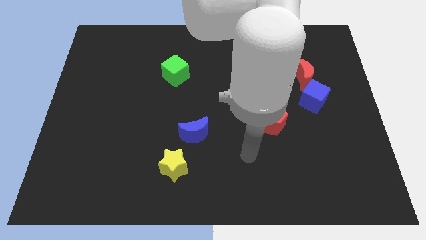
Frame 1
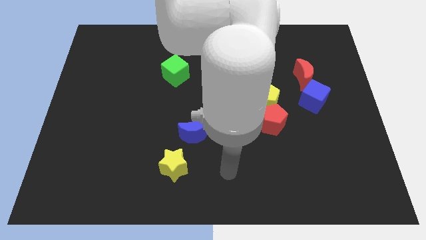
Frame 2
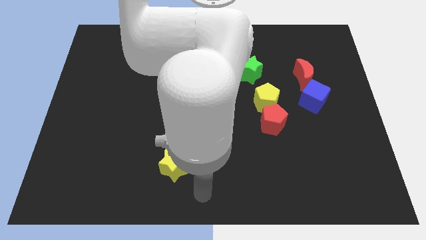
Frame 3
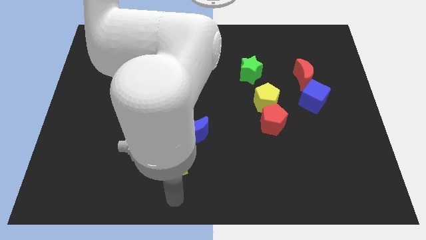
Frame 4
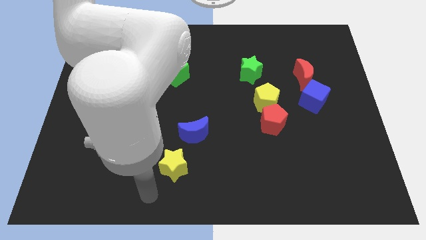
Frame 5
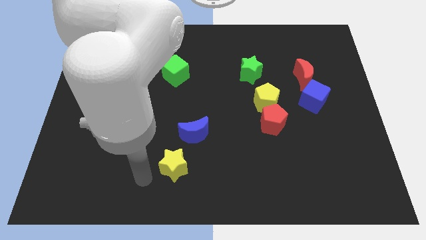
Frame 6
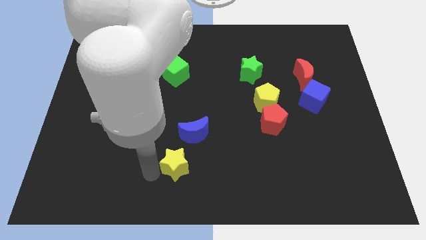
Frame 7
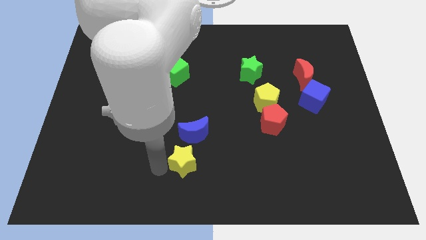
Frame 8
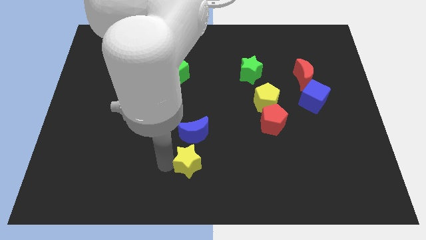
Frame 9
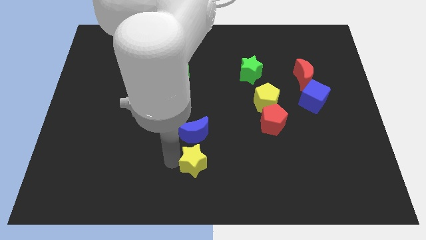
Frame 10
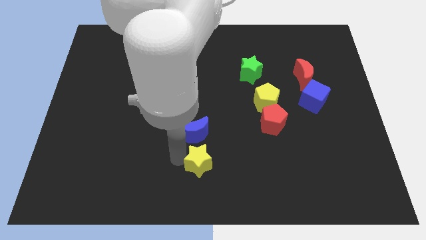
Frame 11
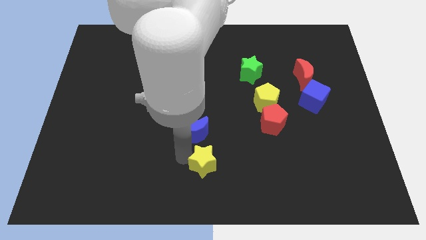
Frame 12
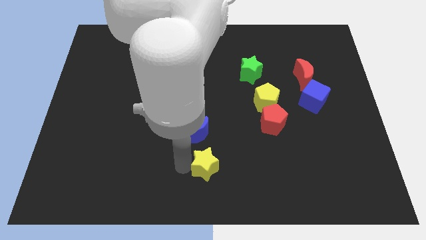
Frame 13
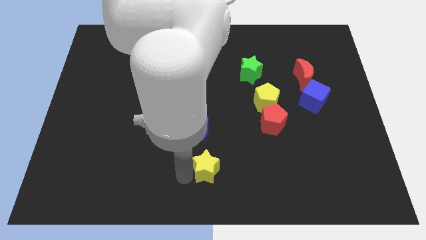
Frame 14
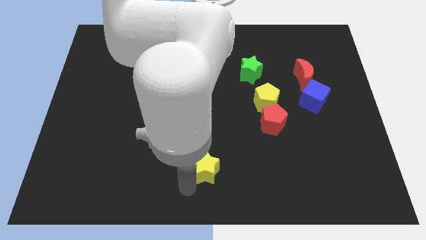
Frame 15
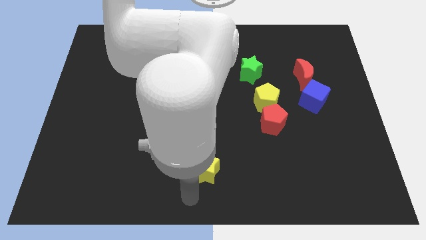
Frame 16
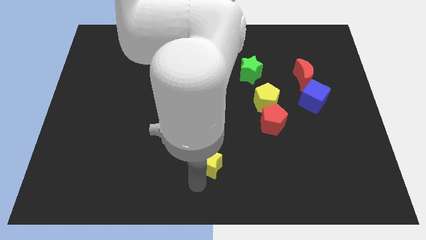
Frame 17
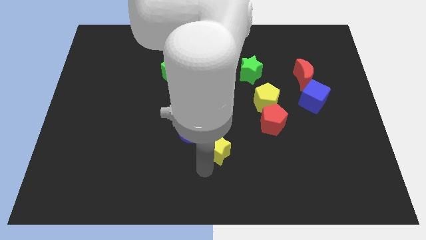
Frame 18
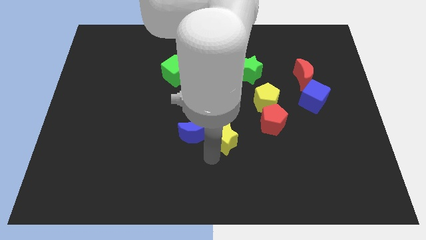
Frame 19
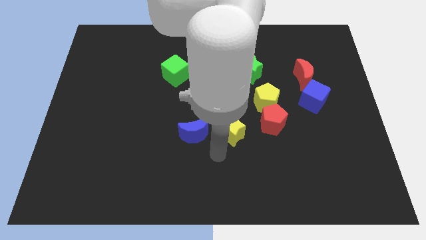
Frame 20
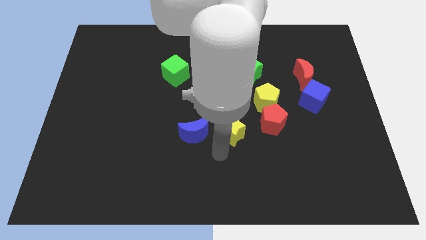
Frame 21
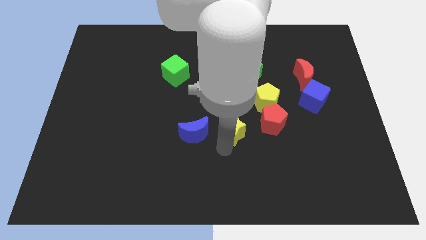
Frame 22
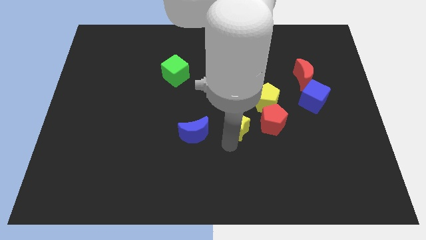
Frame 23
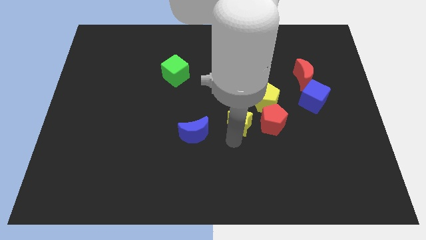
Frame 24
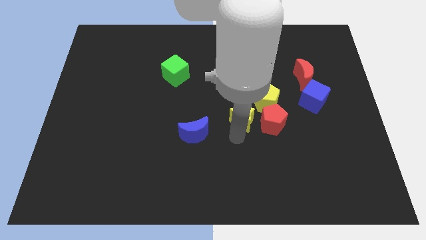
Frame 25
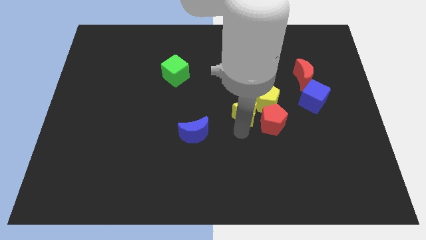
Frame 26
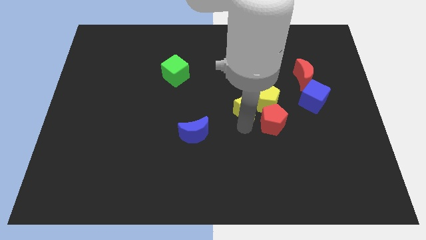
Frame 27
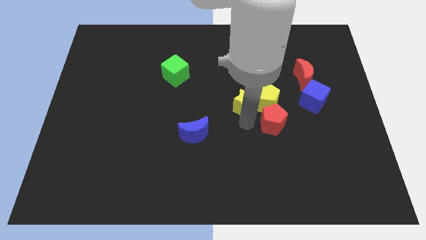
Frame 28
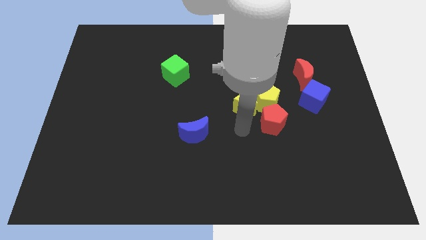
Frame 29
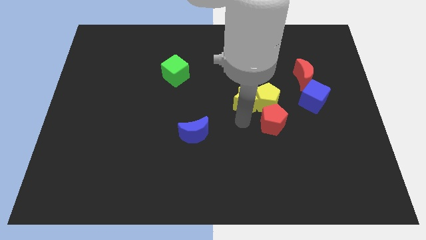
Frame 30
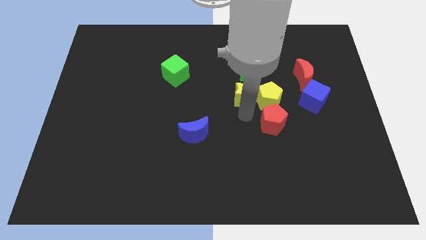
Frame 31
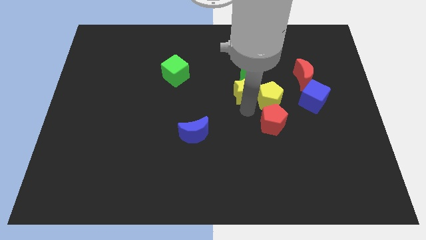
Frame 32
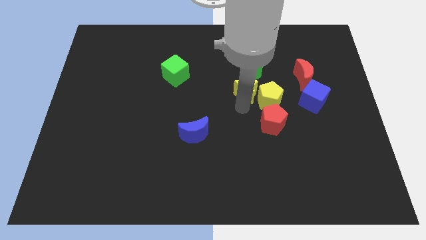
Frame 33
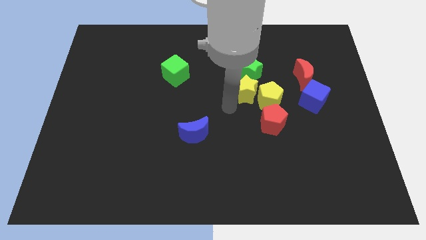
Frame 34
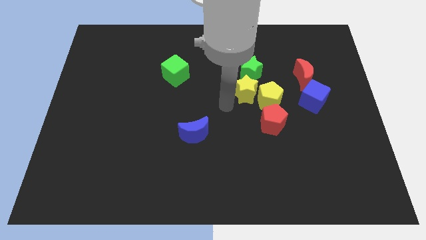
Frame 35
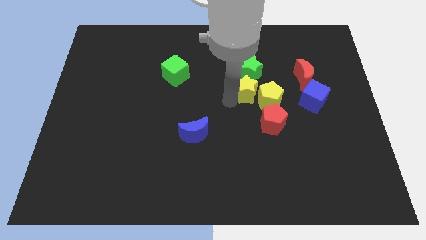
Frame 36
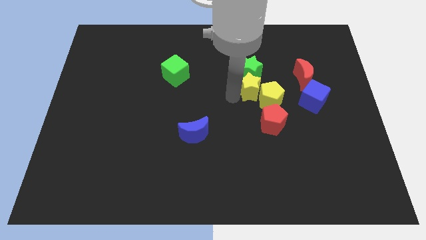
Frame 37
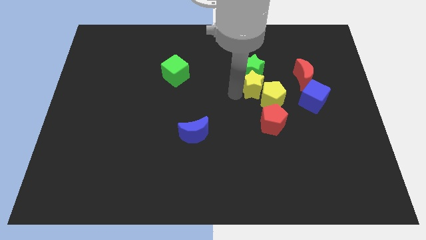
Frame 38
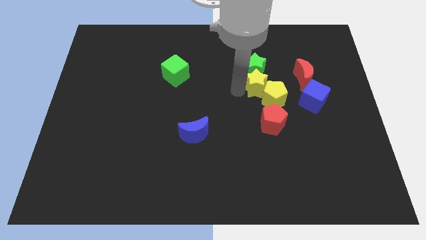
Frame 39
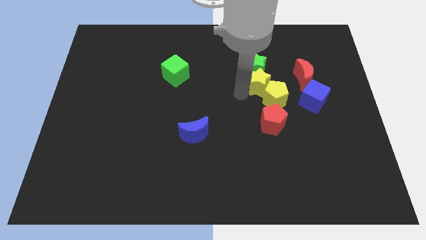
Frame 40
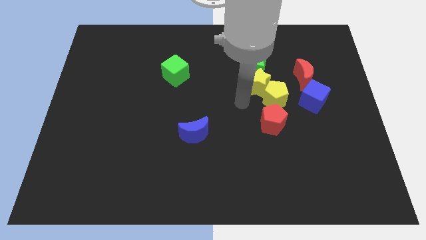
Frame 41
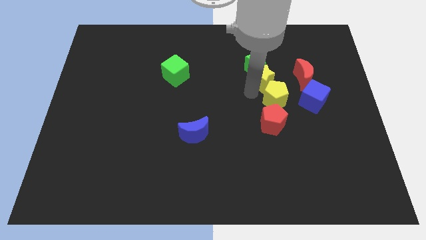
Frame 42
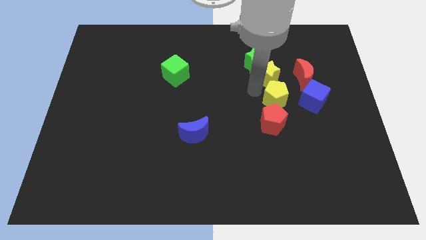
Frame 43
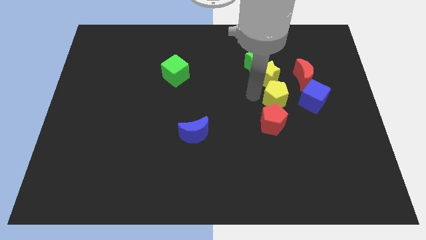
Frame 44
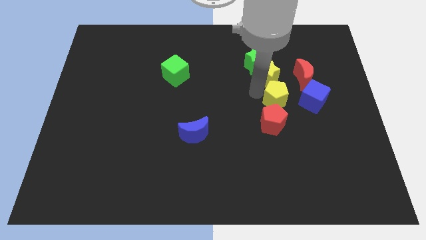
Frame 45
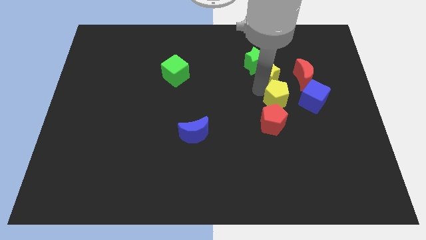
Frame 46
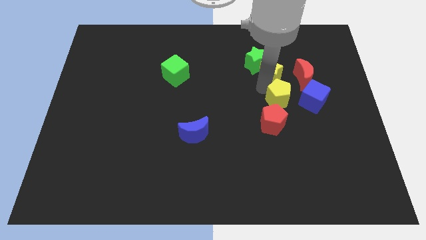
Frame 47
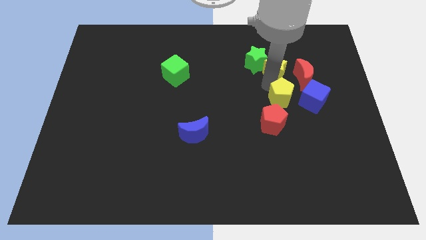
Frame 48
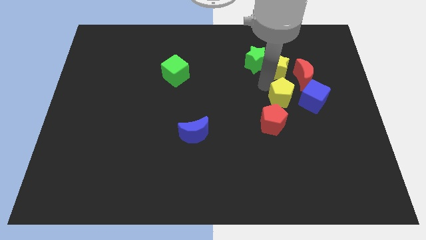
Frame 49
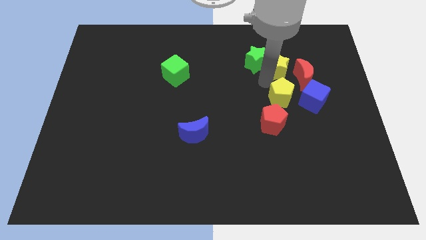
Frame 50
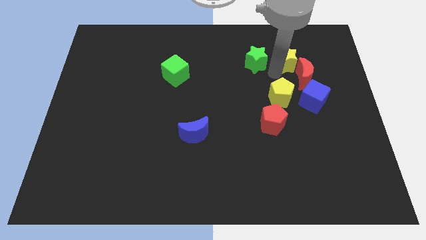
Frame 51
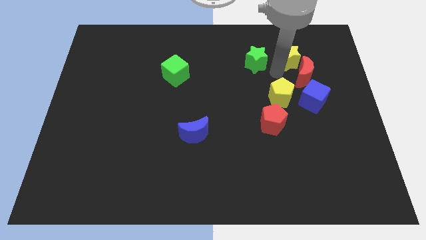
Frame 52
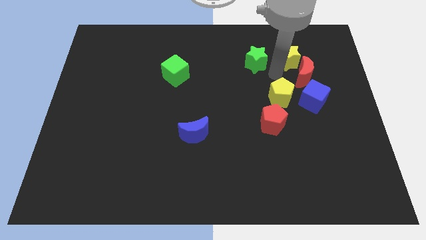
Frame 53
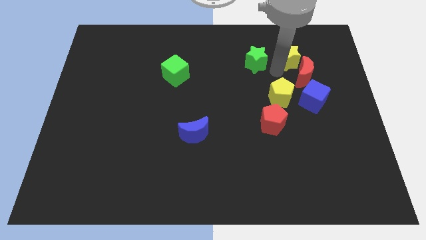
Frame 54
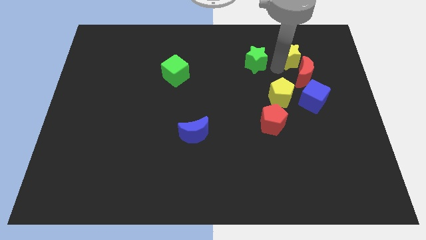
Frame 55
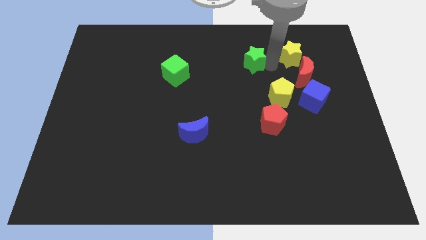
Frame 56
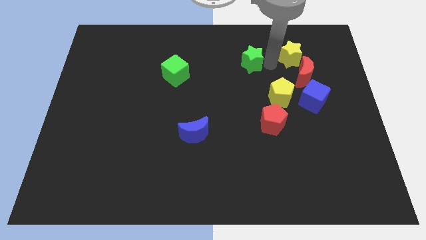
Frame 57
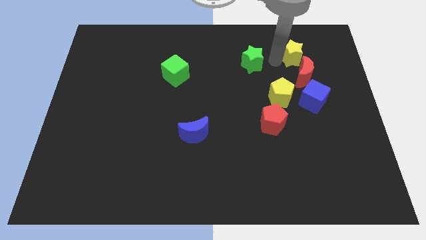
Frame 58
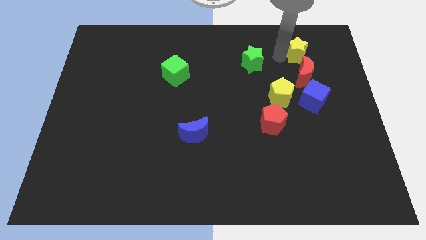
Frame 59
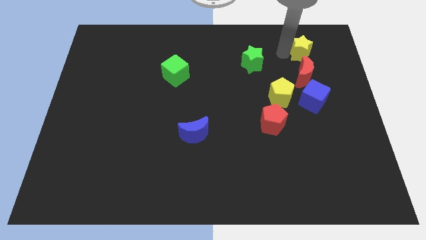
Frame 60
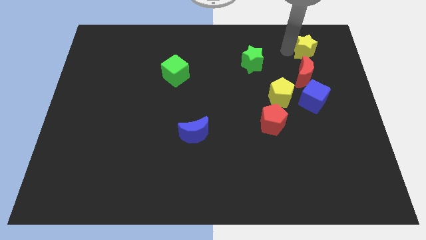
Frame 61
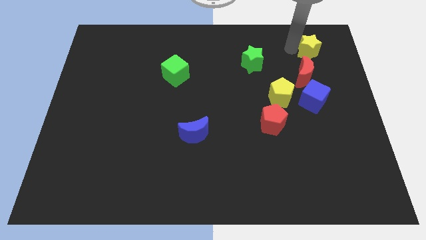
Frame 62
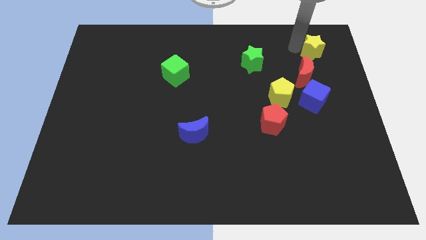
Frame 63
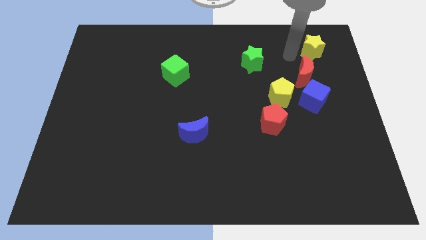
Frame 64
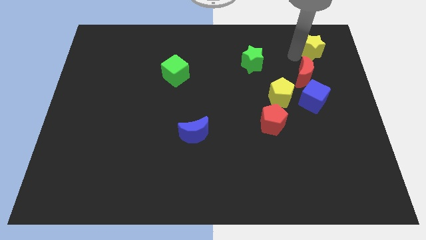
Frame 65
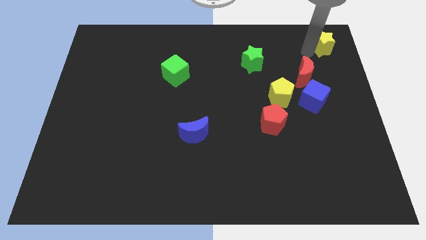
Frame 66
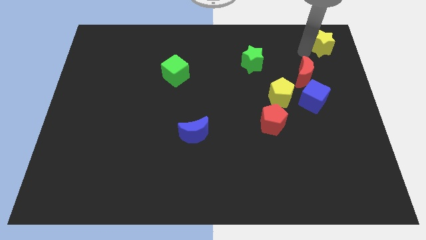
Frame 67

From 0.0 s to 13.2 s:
put the yellow star to the top right

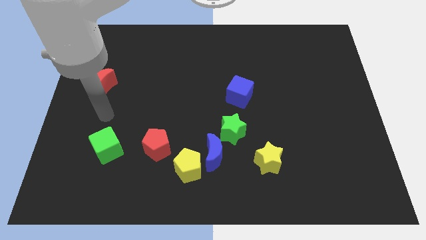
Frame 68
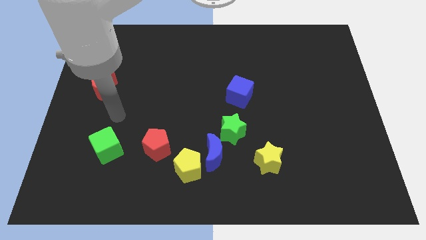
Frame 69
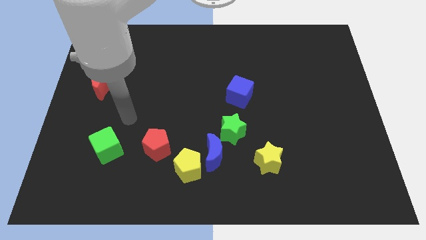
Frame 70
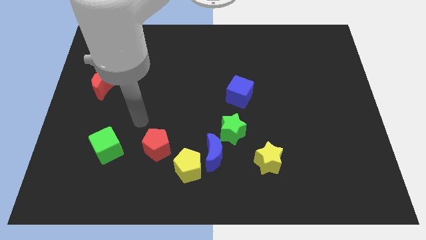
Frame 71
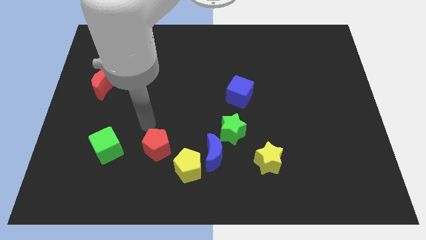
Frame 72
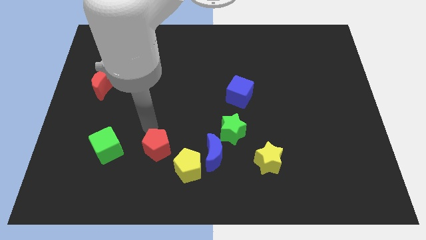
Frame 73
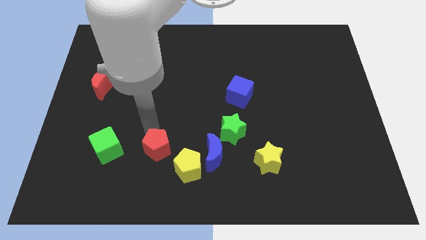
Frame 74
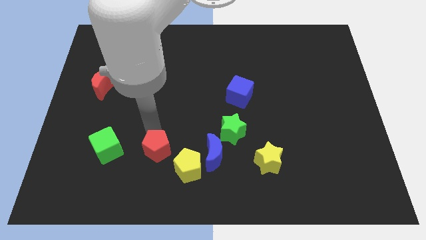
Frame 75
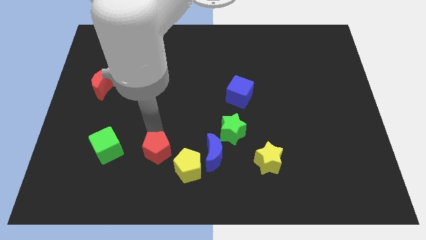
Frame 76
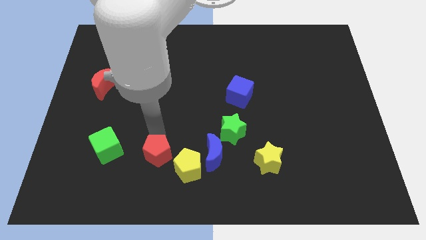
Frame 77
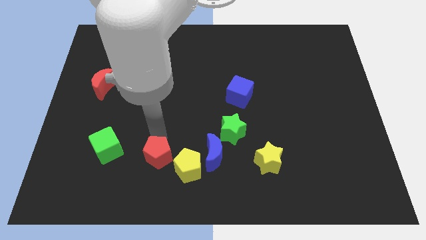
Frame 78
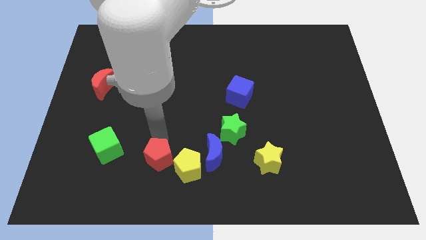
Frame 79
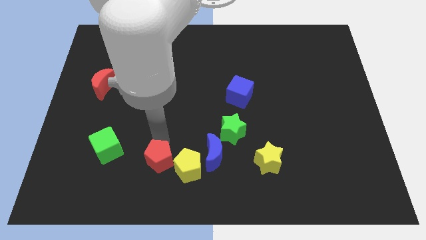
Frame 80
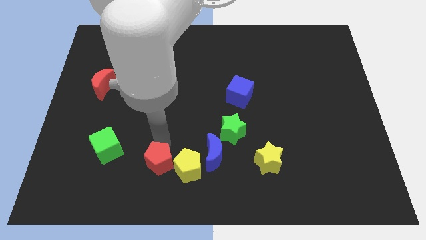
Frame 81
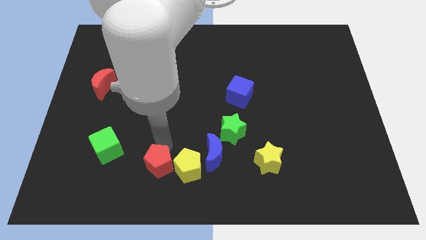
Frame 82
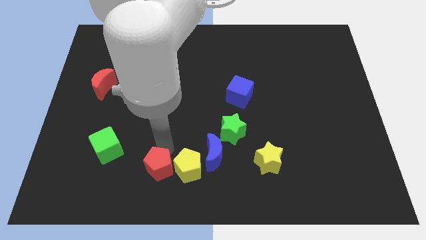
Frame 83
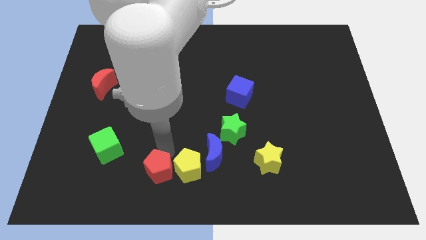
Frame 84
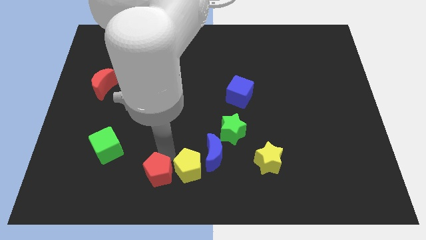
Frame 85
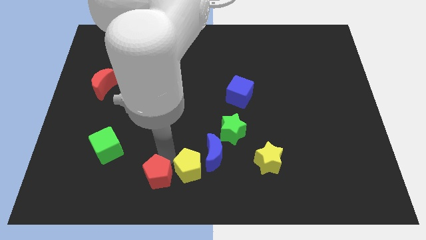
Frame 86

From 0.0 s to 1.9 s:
move the red pentagon to the bottom side
